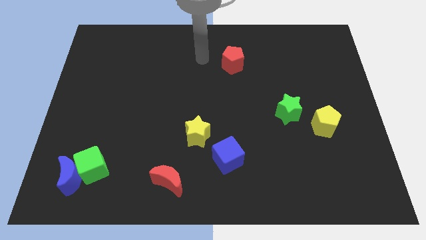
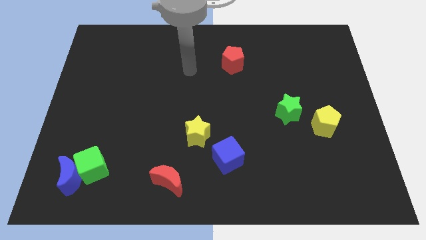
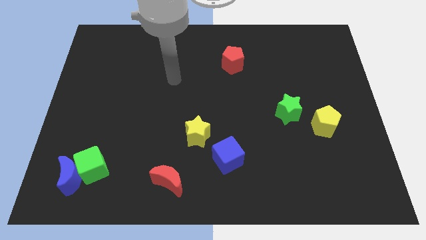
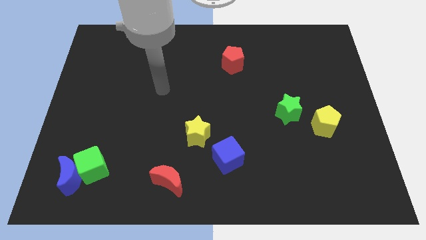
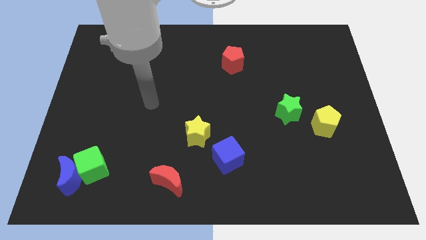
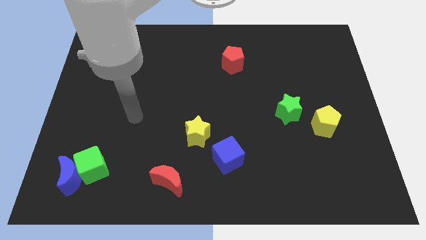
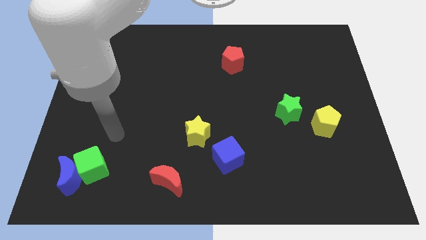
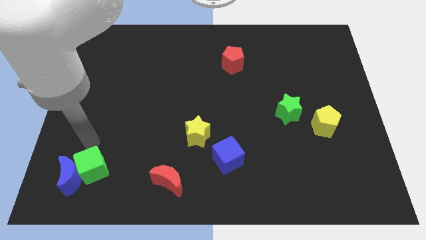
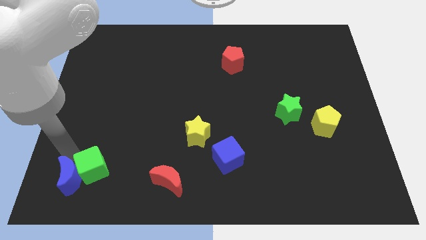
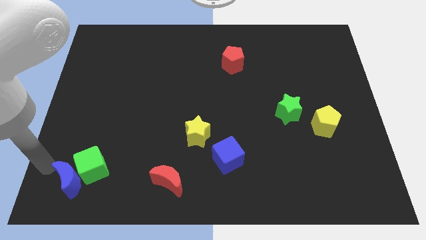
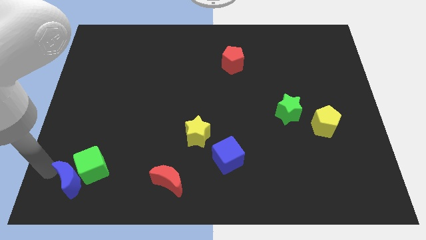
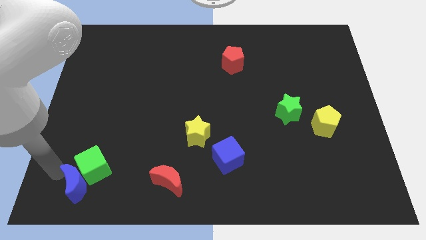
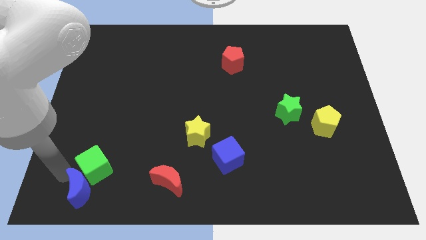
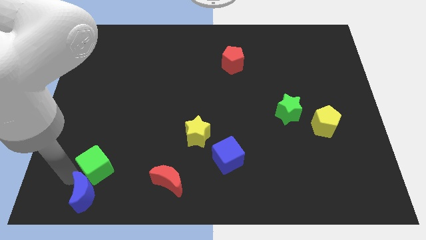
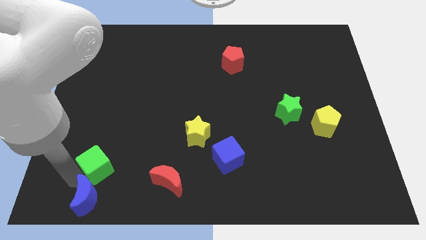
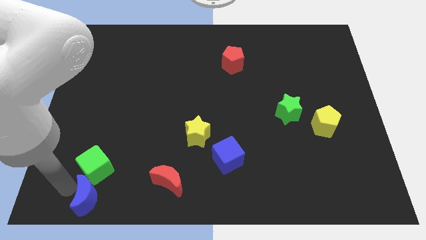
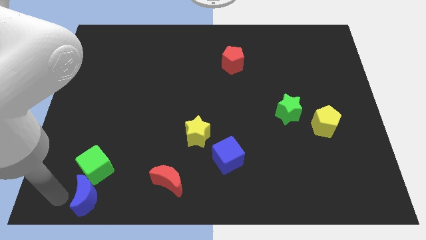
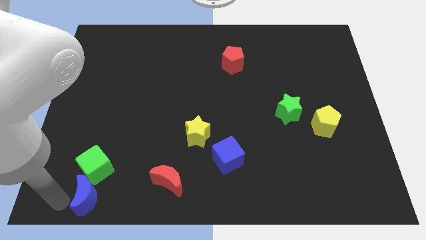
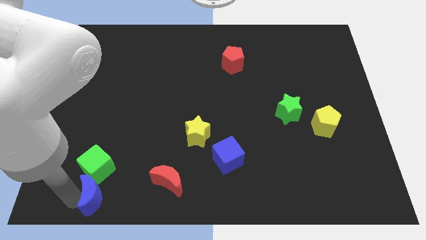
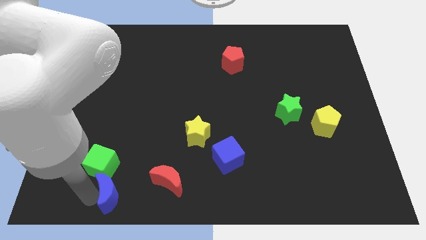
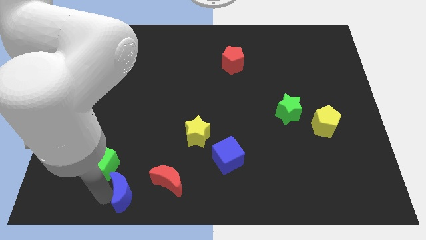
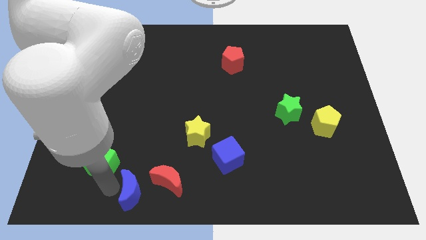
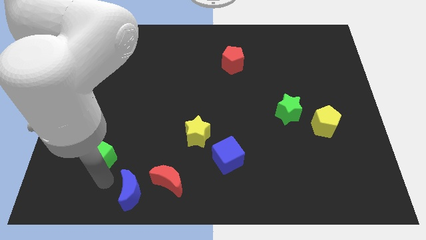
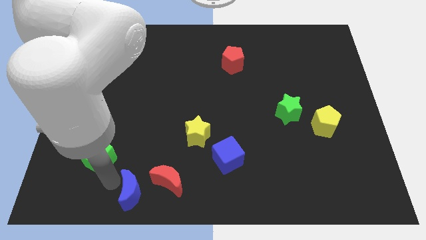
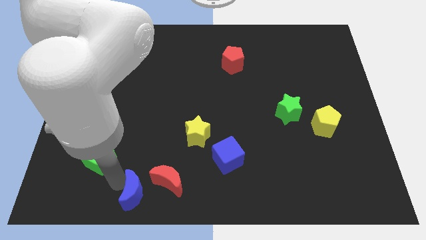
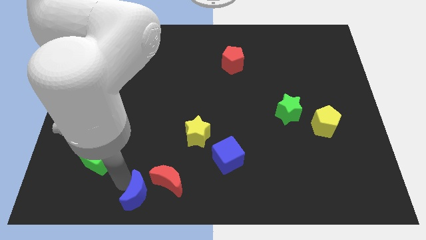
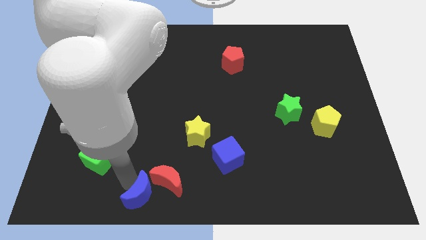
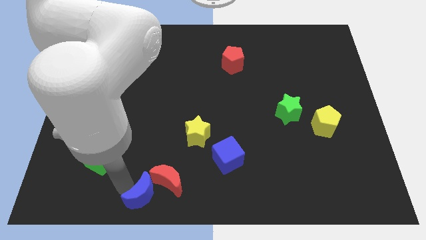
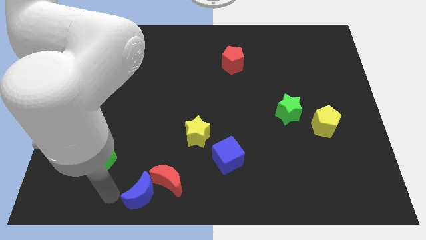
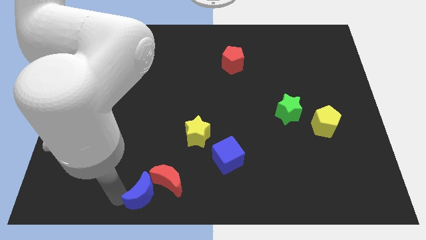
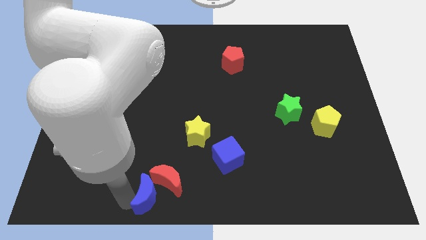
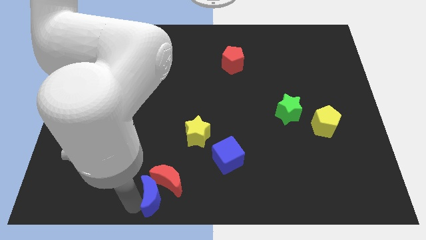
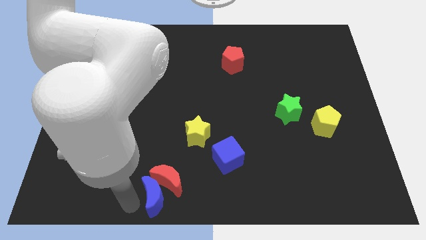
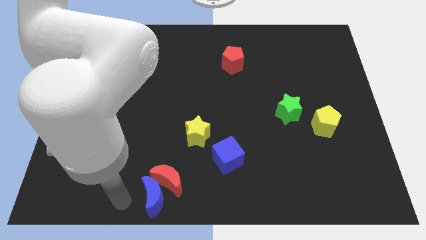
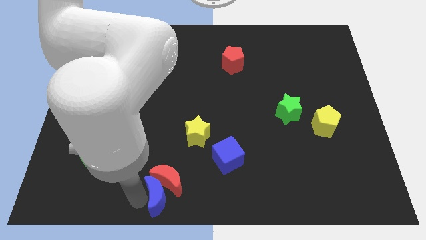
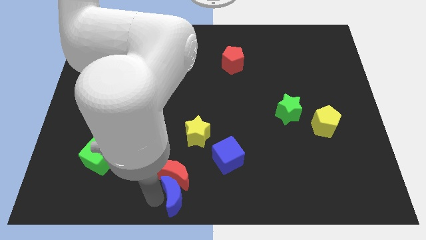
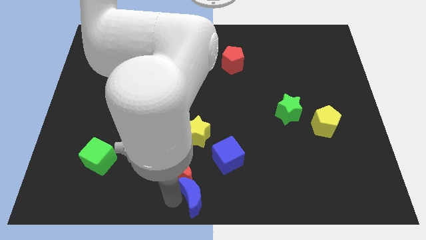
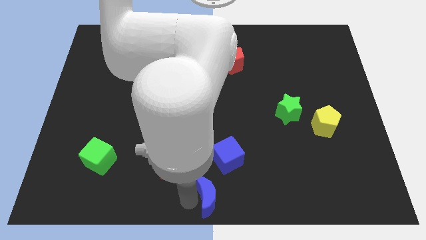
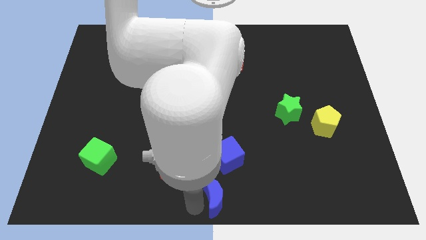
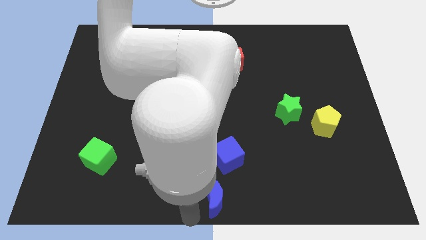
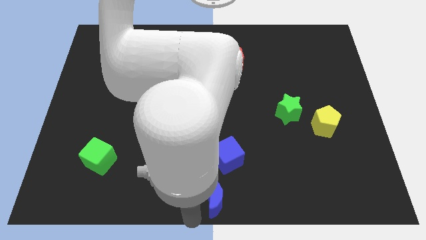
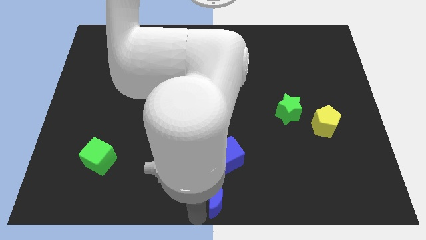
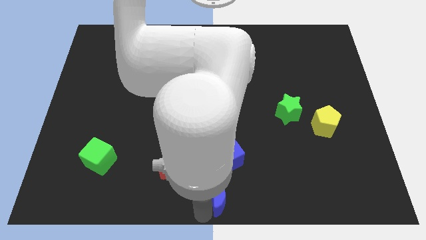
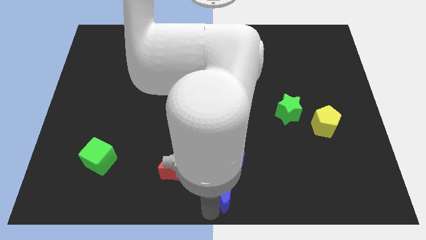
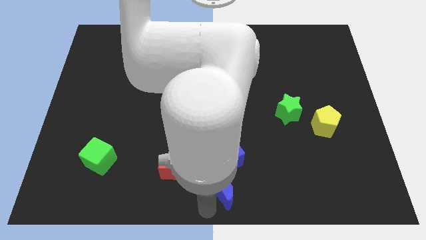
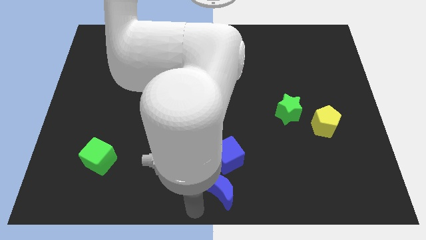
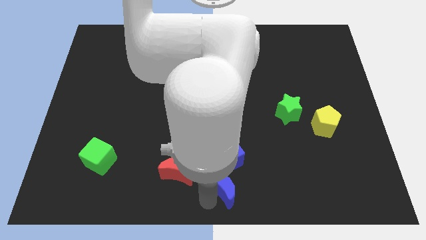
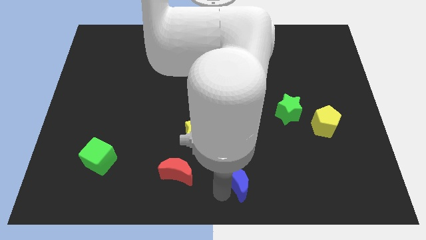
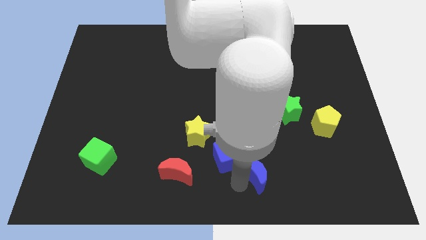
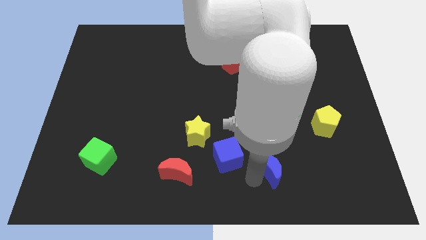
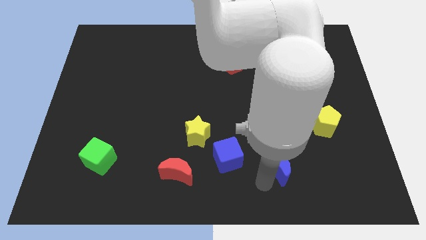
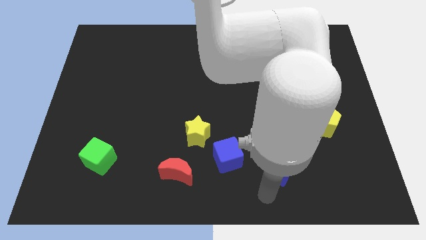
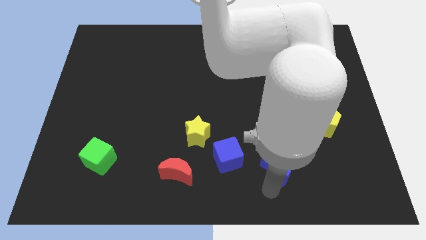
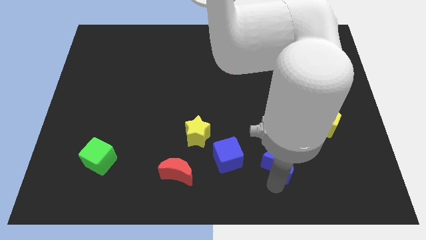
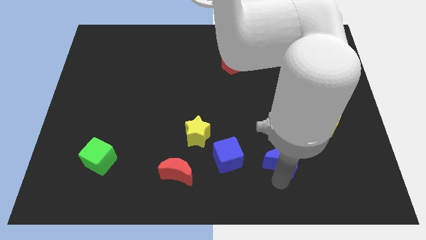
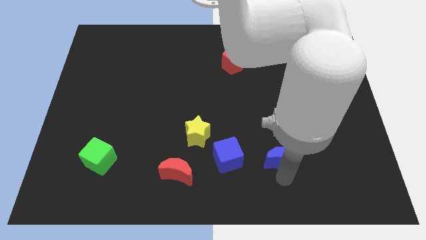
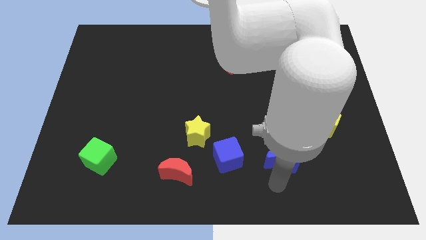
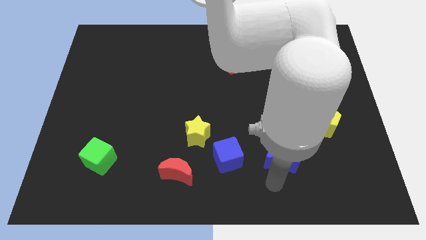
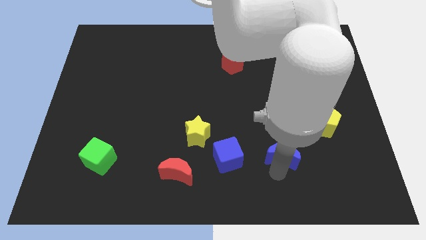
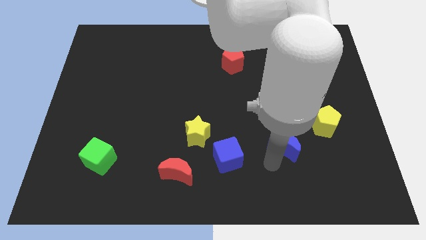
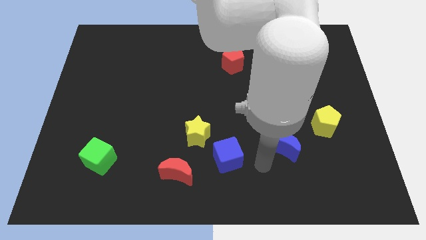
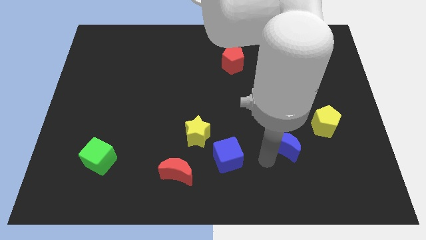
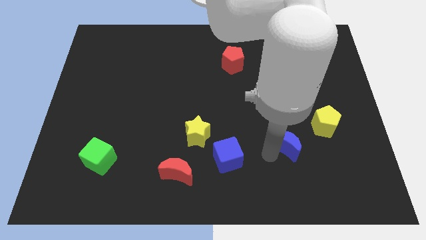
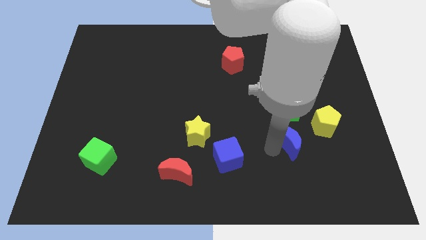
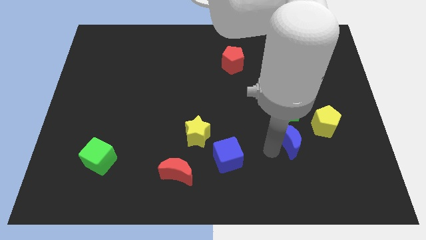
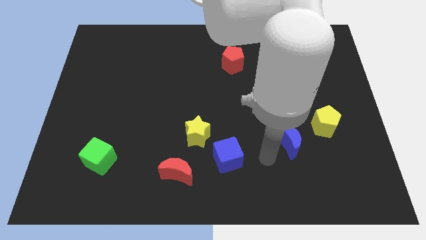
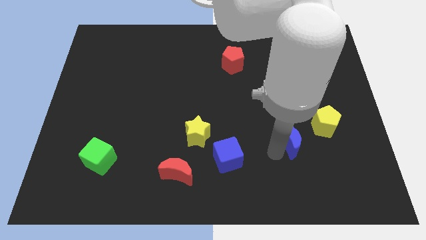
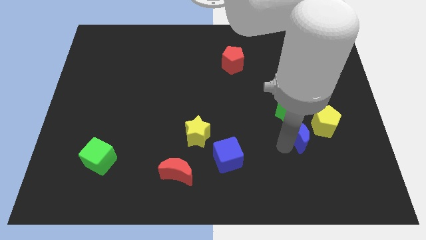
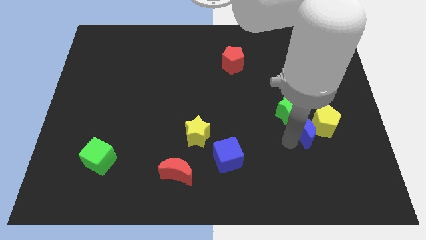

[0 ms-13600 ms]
slide the blue moon next to the yellow pentagon

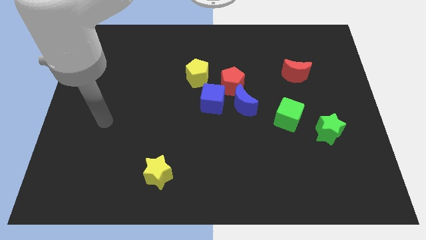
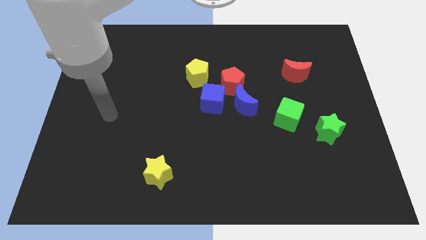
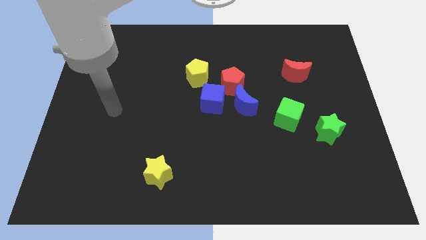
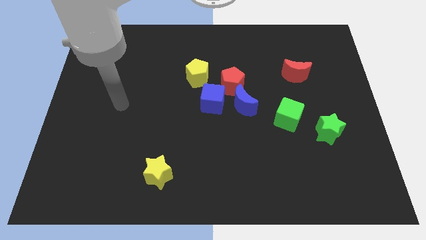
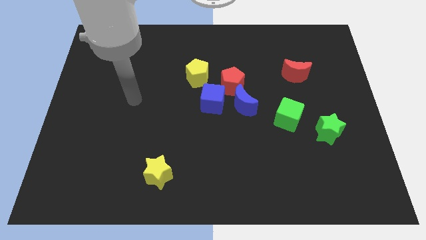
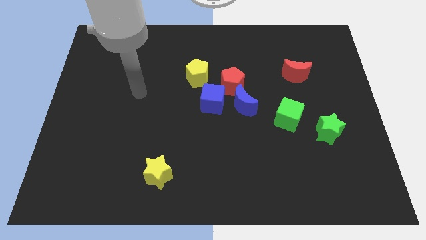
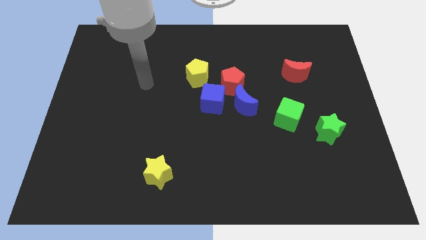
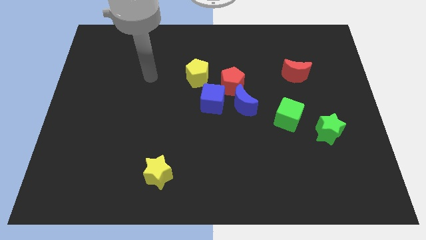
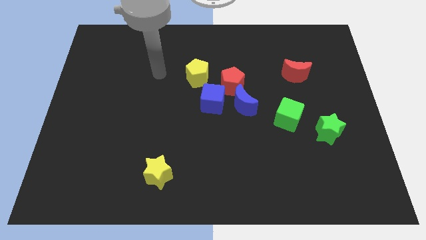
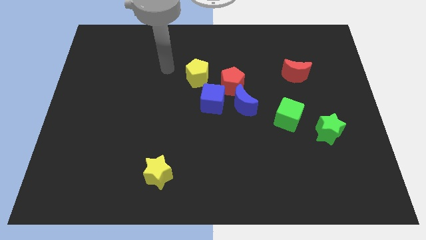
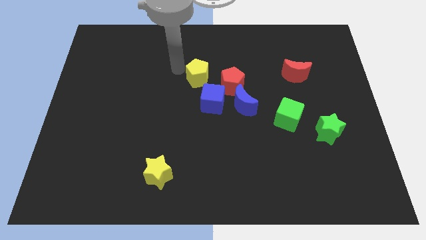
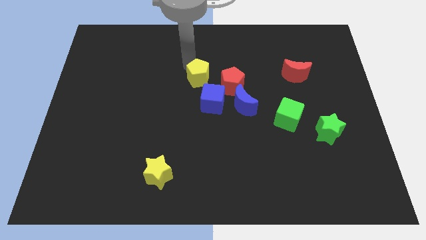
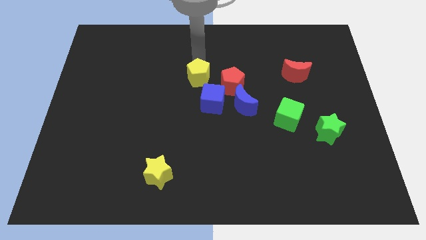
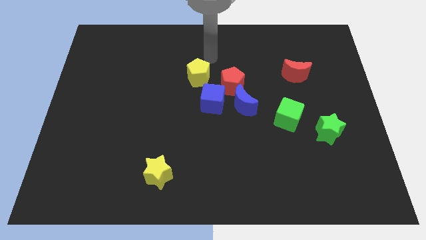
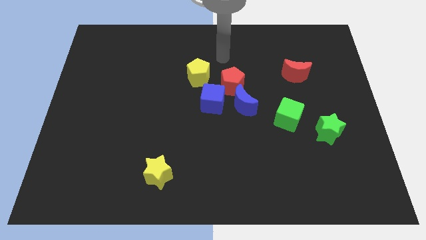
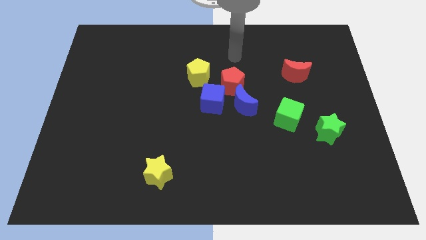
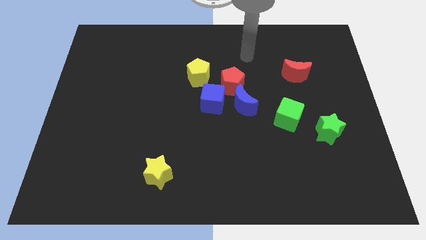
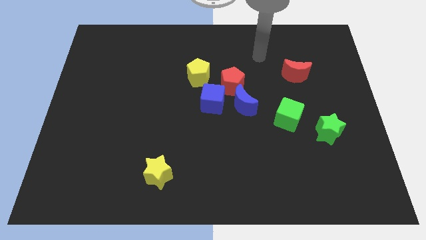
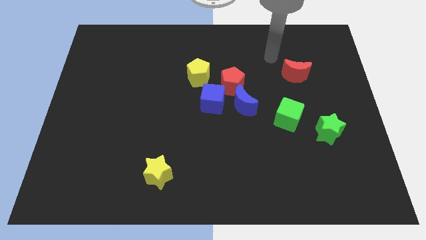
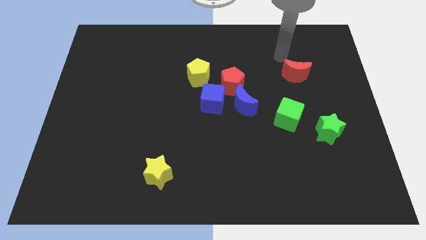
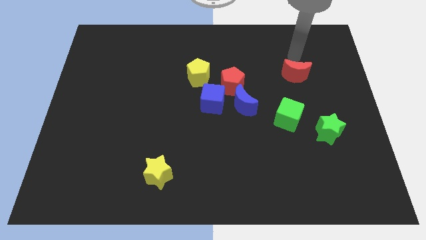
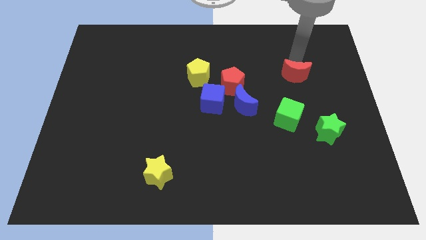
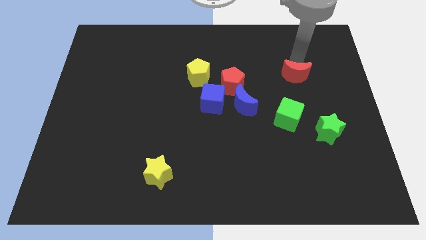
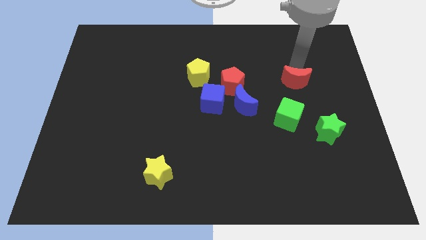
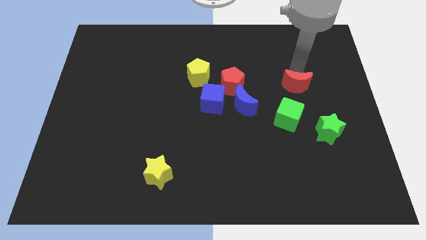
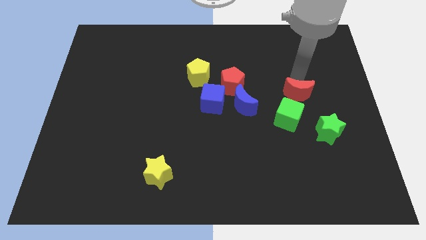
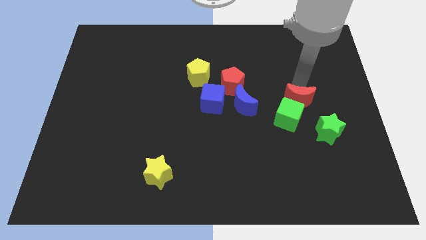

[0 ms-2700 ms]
put the red moon close to the green cube
